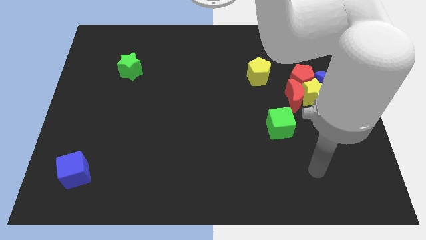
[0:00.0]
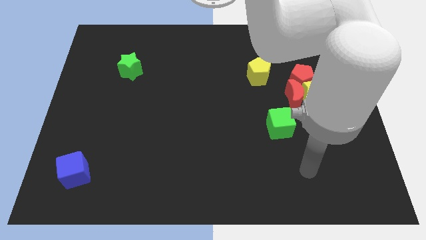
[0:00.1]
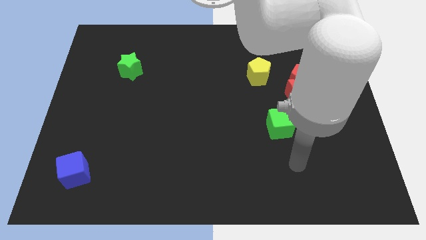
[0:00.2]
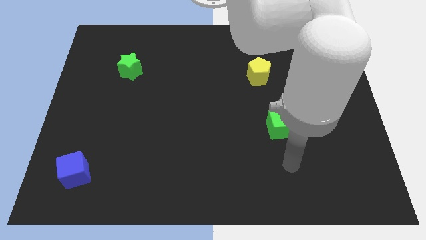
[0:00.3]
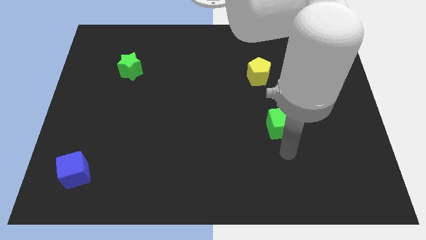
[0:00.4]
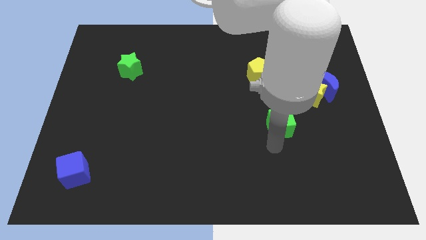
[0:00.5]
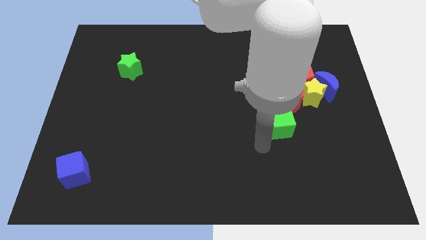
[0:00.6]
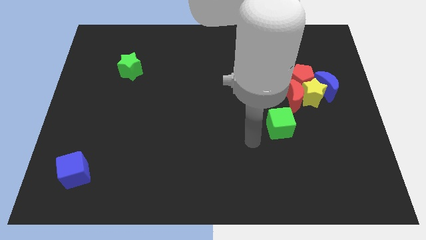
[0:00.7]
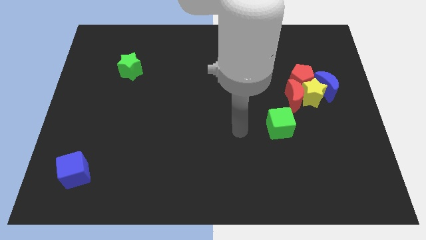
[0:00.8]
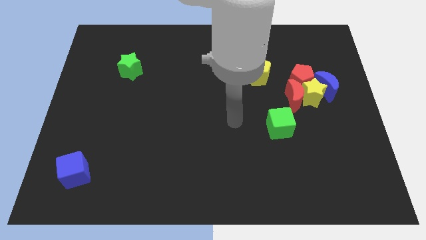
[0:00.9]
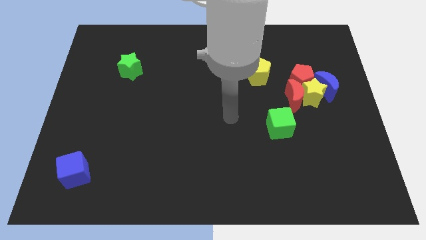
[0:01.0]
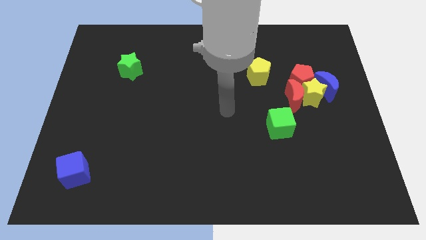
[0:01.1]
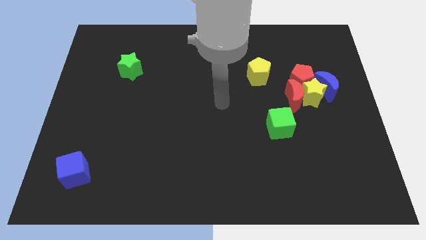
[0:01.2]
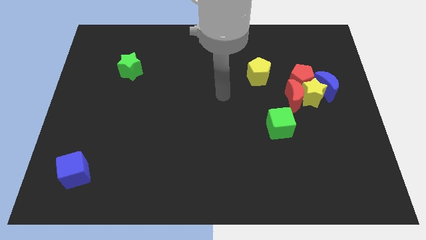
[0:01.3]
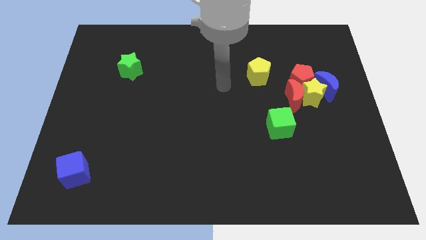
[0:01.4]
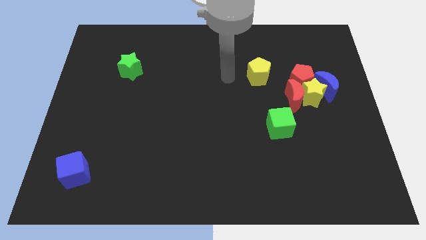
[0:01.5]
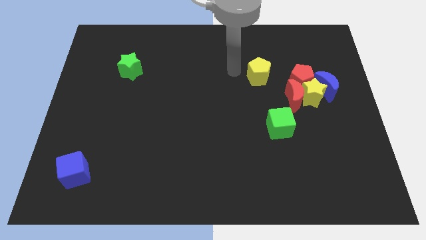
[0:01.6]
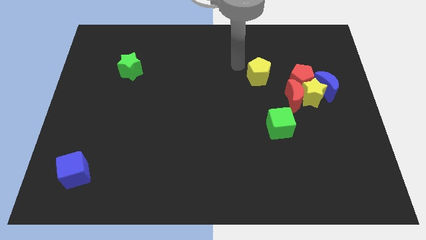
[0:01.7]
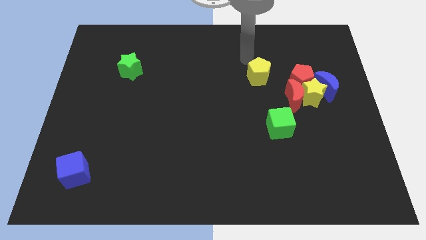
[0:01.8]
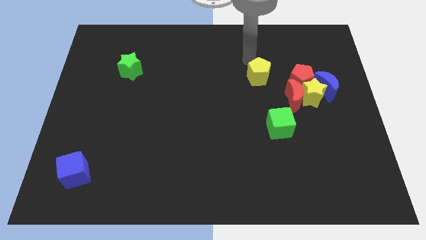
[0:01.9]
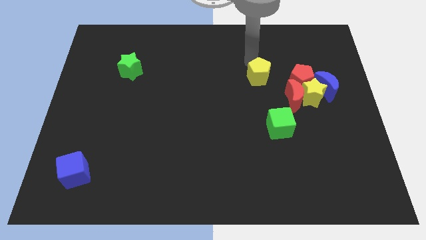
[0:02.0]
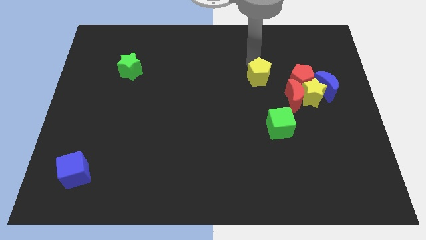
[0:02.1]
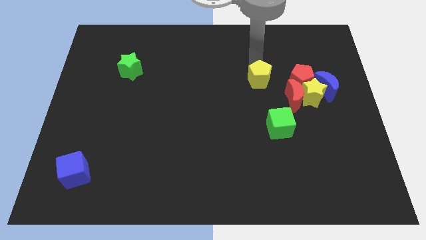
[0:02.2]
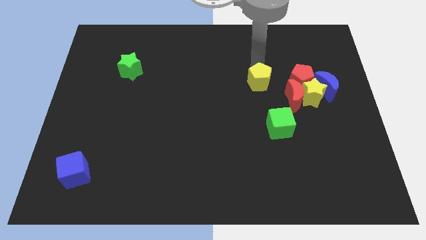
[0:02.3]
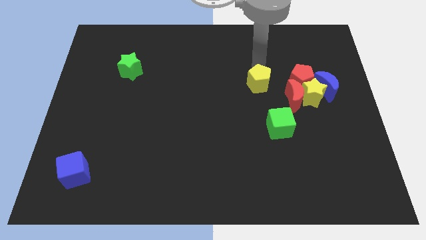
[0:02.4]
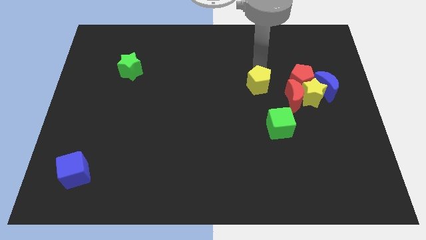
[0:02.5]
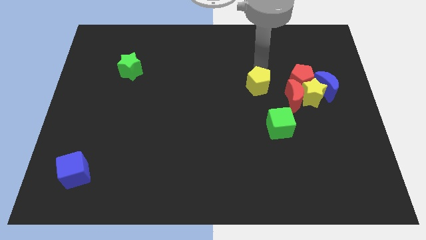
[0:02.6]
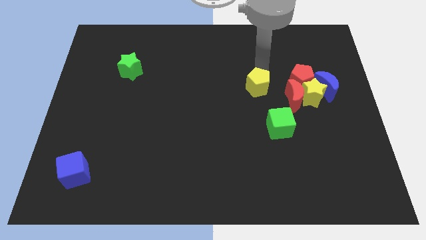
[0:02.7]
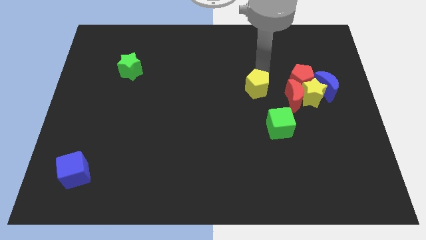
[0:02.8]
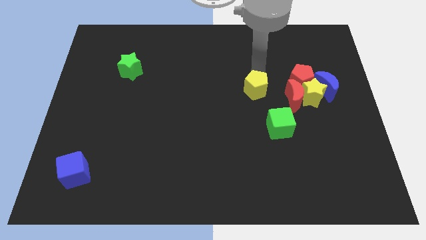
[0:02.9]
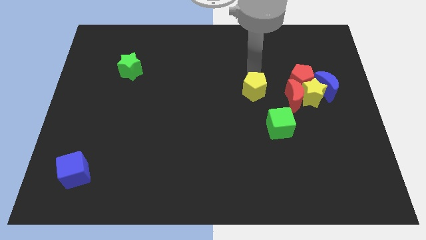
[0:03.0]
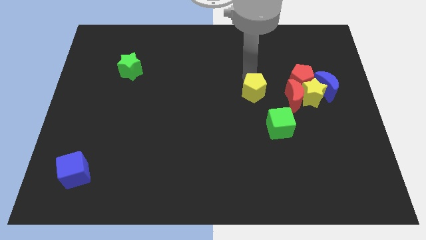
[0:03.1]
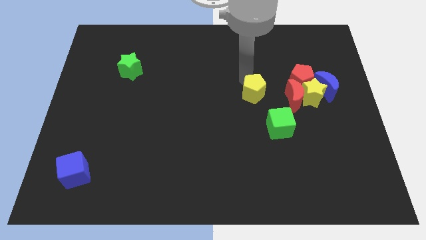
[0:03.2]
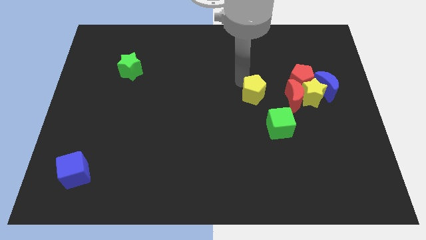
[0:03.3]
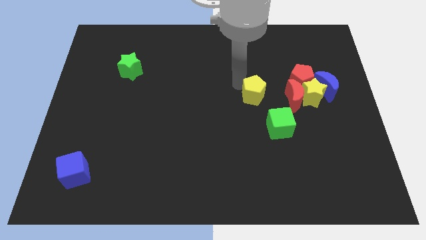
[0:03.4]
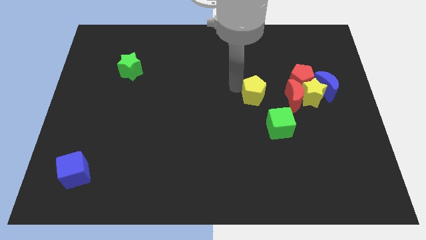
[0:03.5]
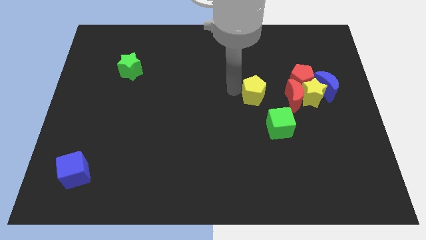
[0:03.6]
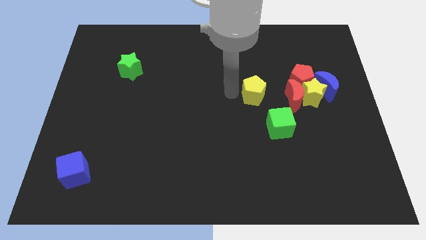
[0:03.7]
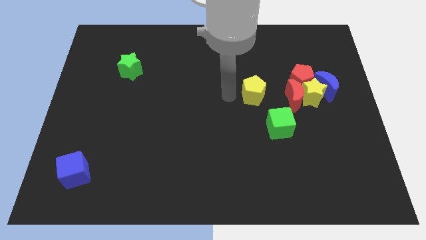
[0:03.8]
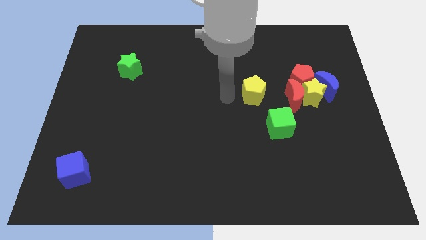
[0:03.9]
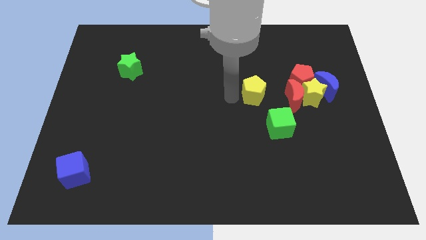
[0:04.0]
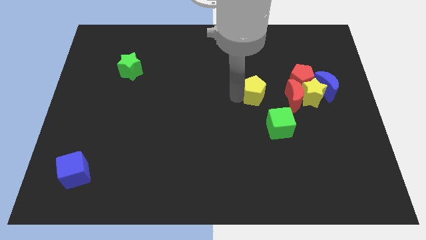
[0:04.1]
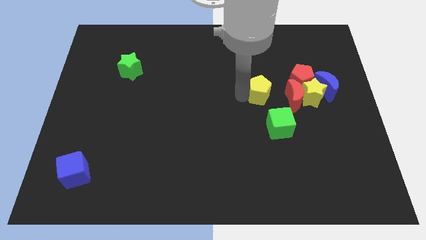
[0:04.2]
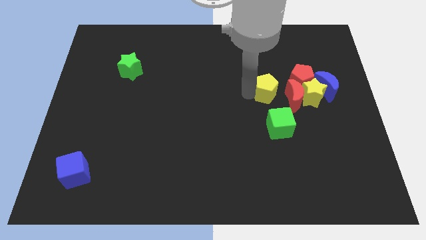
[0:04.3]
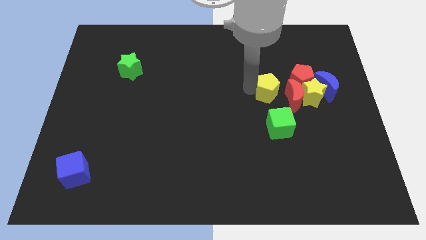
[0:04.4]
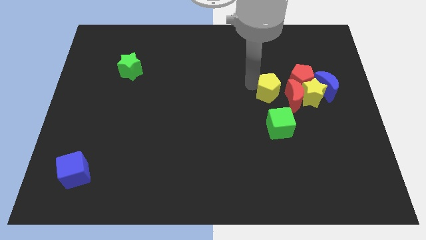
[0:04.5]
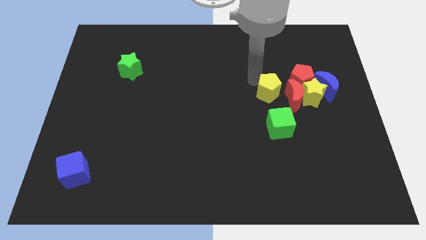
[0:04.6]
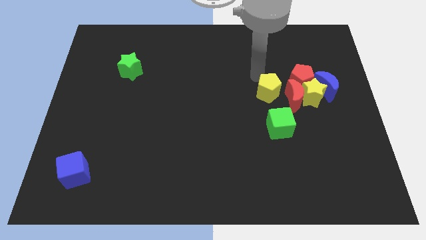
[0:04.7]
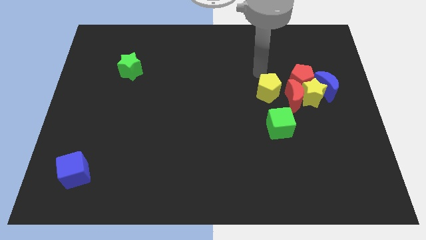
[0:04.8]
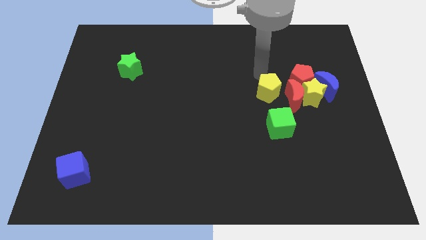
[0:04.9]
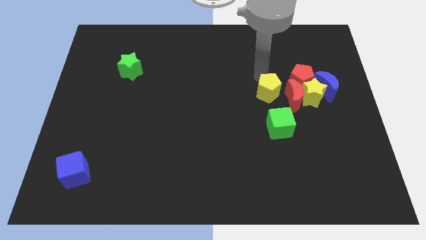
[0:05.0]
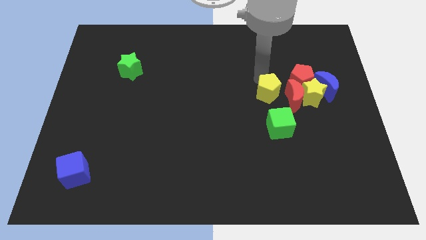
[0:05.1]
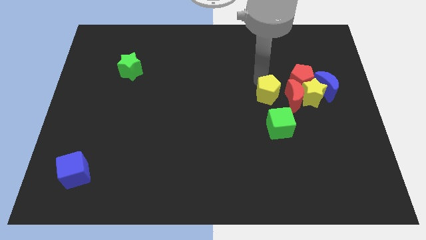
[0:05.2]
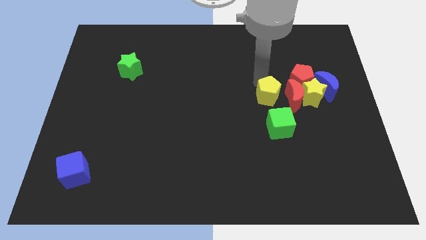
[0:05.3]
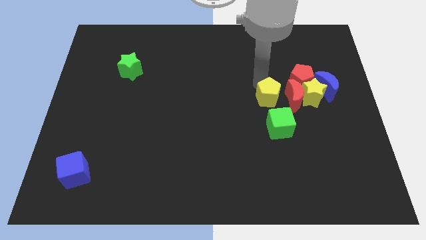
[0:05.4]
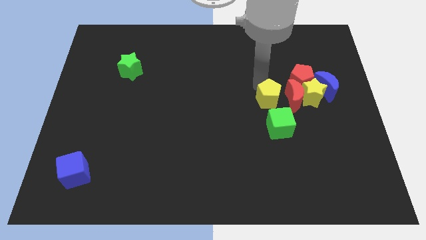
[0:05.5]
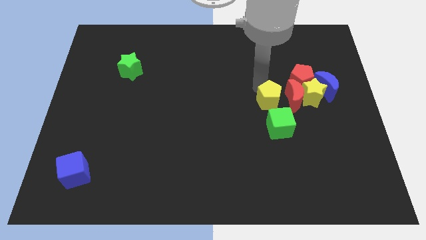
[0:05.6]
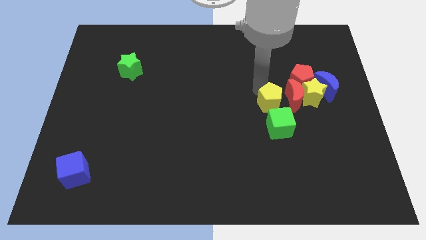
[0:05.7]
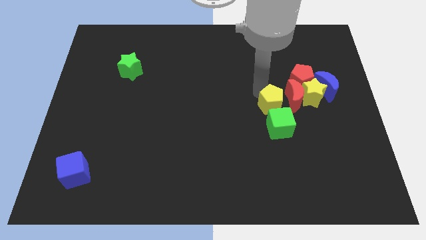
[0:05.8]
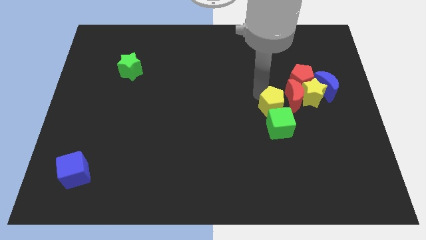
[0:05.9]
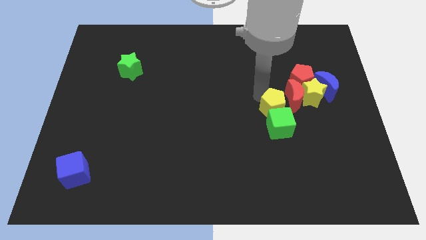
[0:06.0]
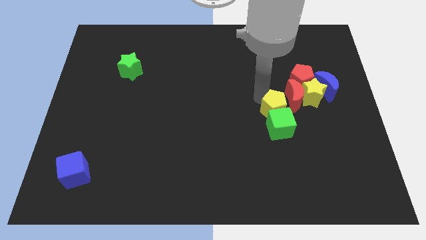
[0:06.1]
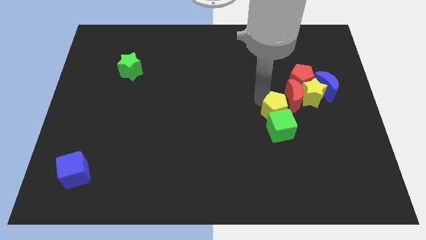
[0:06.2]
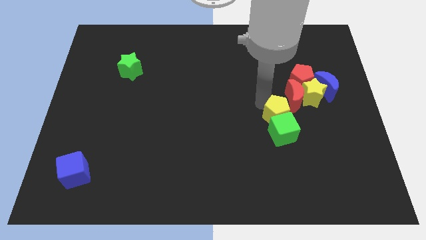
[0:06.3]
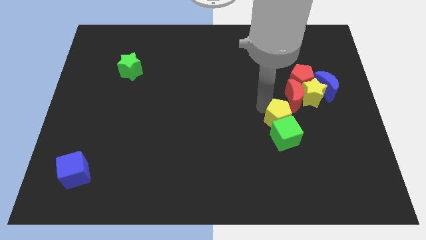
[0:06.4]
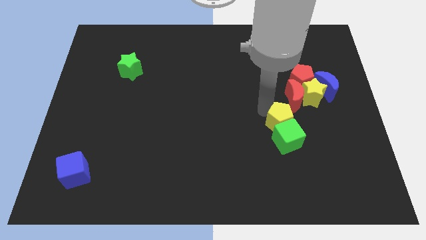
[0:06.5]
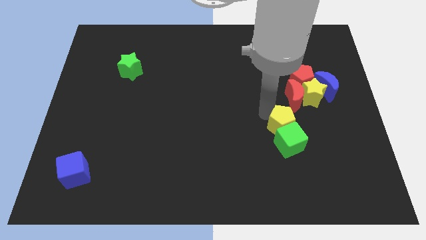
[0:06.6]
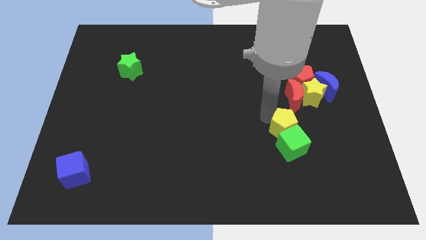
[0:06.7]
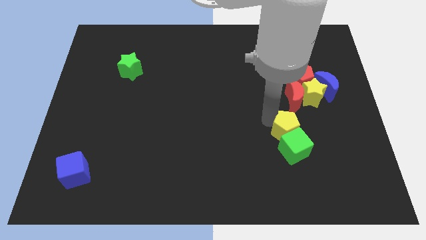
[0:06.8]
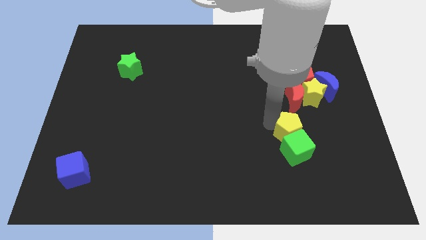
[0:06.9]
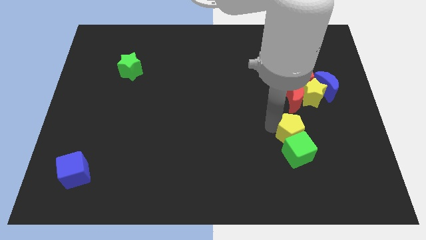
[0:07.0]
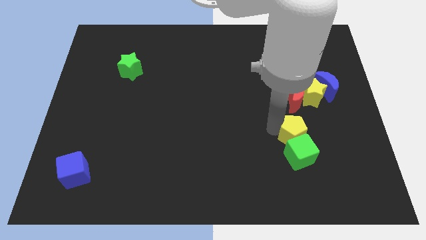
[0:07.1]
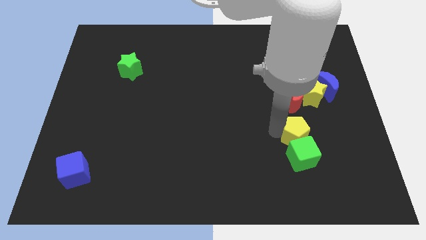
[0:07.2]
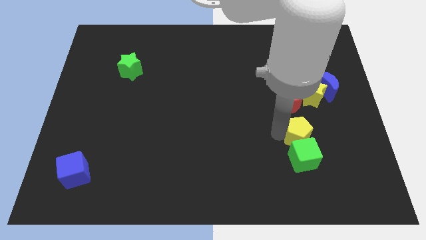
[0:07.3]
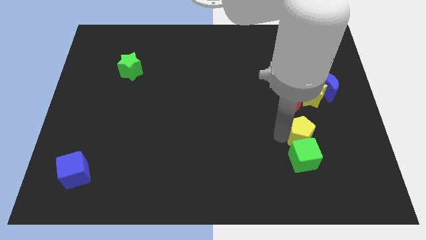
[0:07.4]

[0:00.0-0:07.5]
put the yellow pentagon to the bottom side of the yellow star
